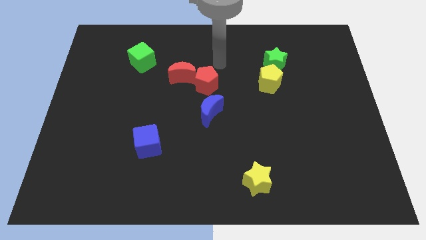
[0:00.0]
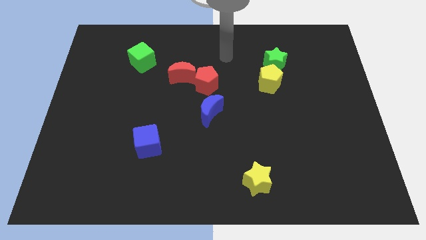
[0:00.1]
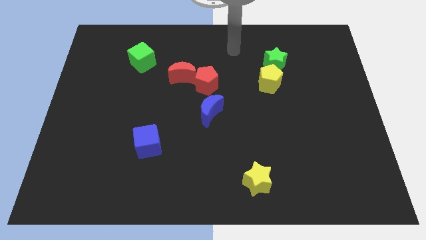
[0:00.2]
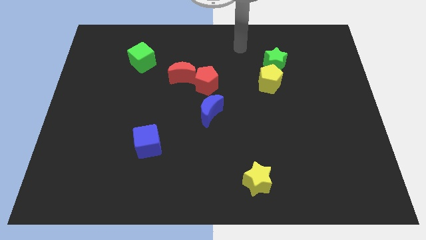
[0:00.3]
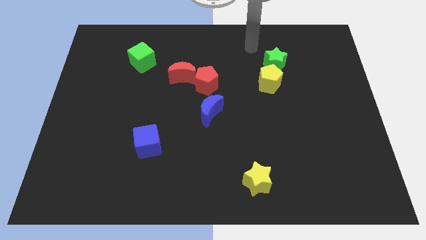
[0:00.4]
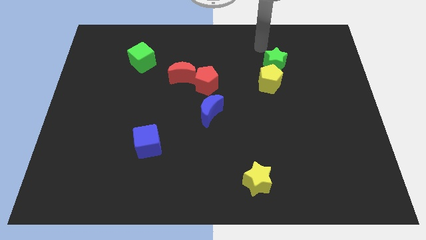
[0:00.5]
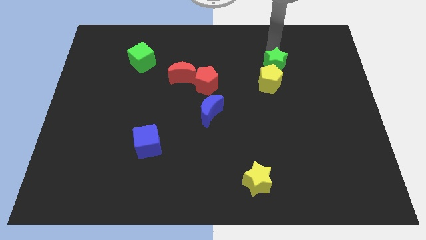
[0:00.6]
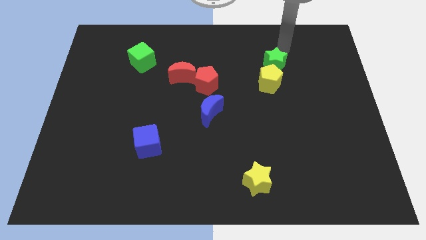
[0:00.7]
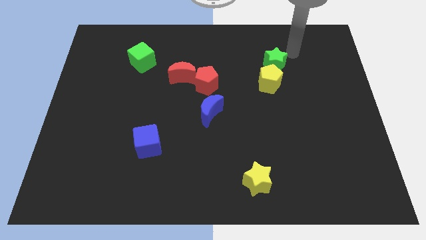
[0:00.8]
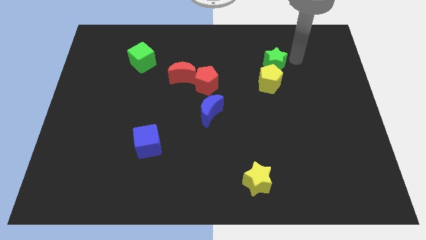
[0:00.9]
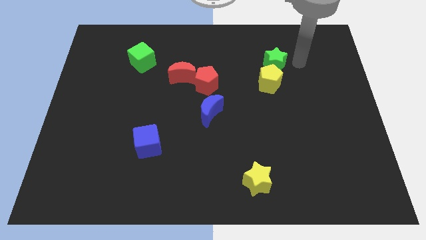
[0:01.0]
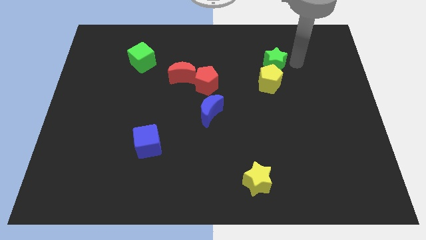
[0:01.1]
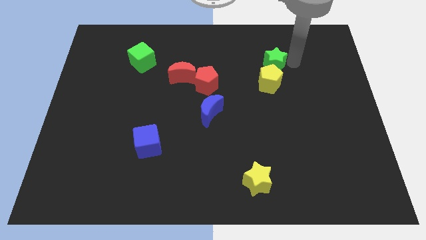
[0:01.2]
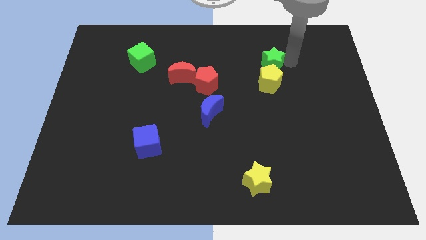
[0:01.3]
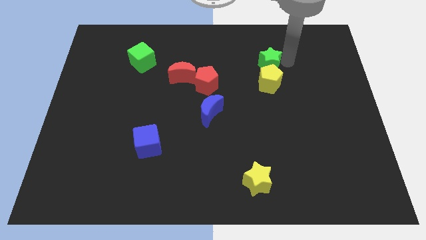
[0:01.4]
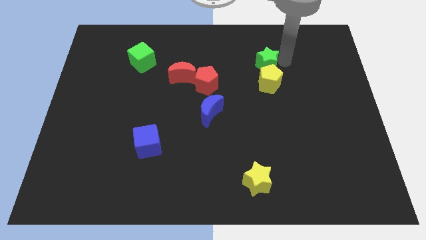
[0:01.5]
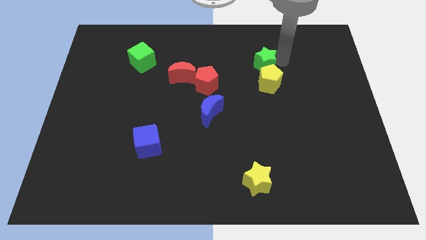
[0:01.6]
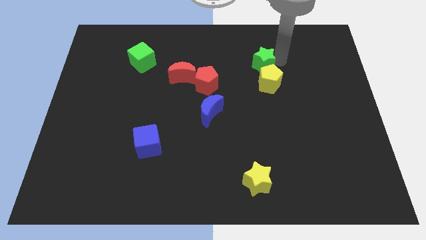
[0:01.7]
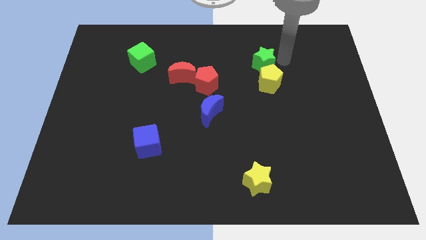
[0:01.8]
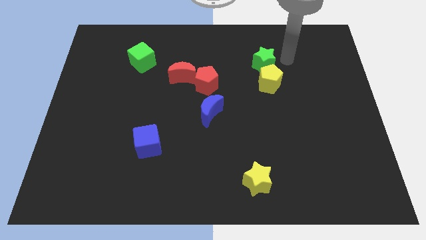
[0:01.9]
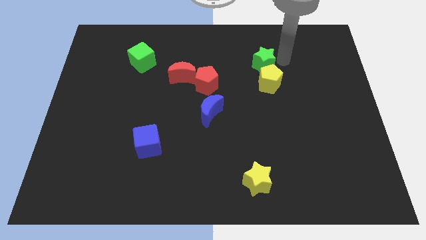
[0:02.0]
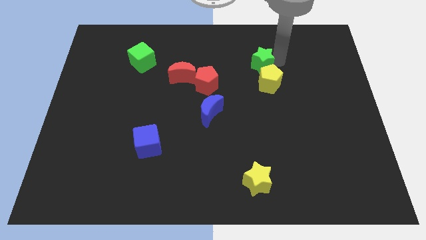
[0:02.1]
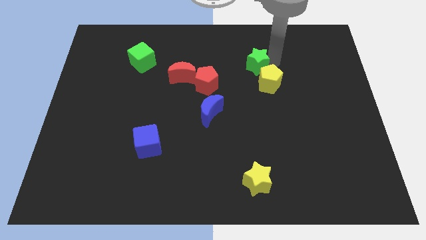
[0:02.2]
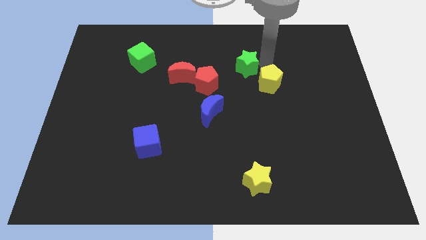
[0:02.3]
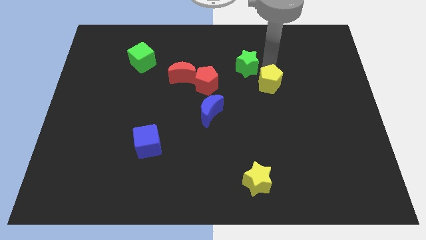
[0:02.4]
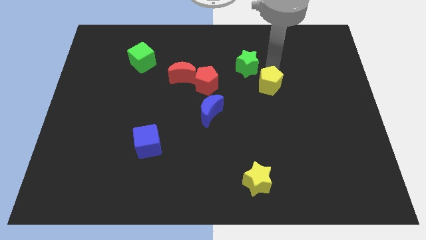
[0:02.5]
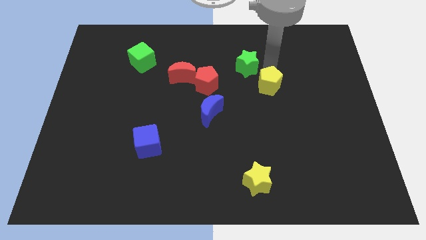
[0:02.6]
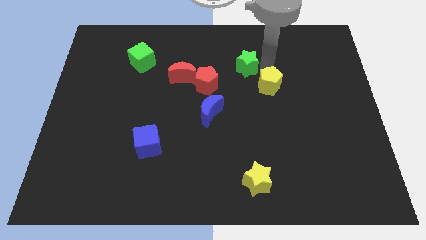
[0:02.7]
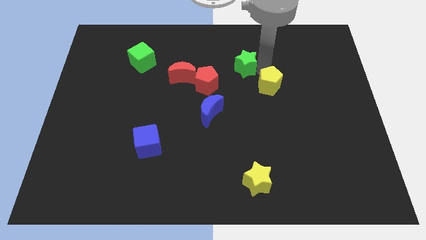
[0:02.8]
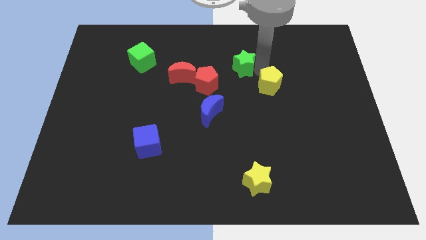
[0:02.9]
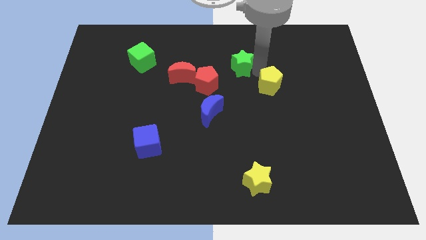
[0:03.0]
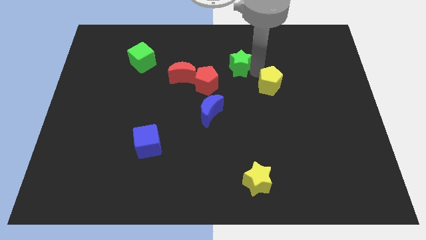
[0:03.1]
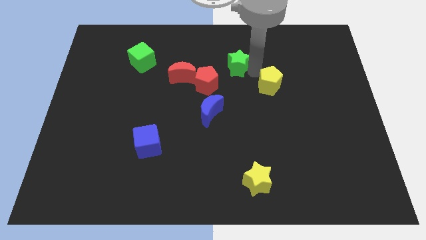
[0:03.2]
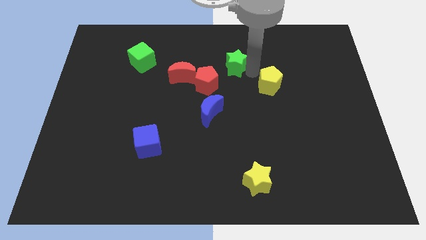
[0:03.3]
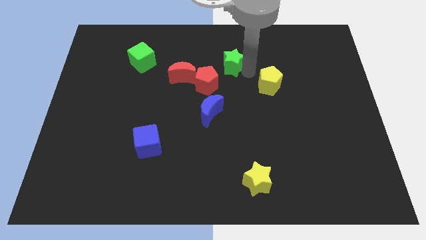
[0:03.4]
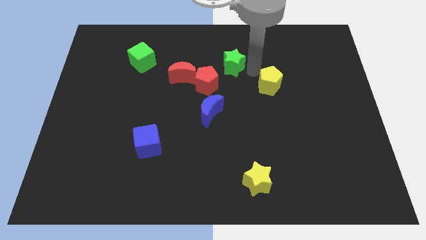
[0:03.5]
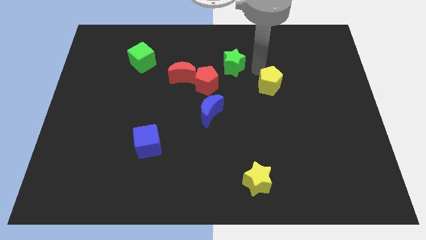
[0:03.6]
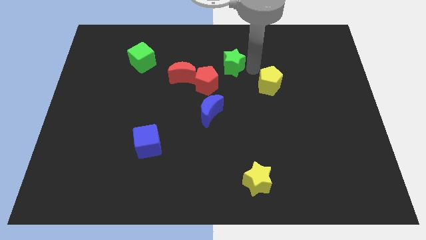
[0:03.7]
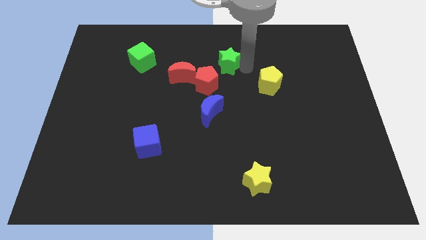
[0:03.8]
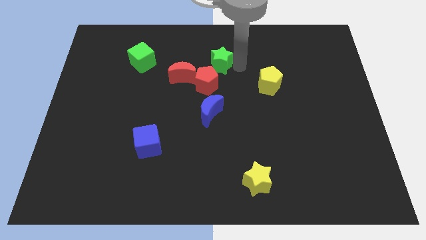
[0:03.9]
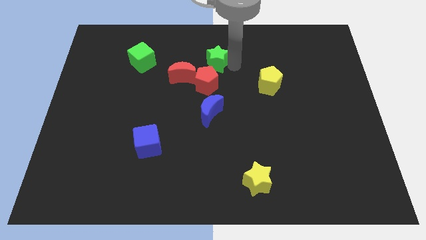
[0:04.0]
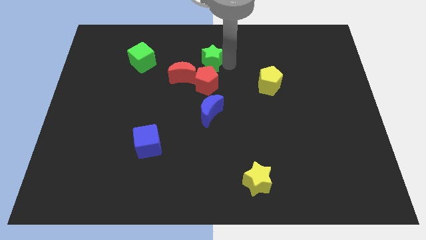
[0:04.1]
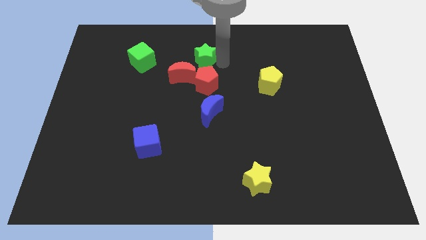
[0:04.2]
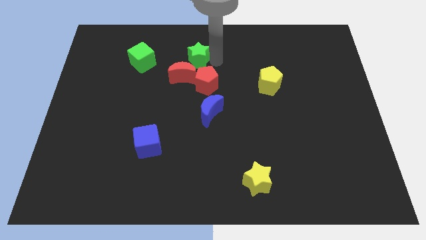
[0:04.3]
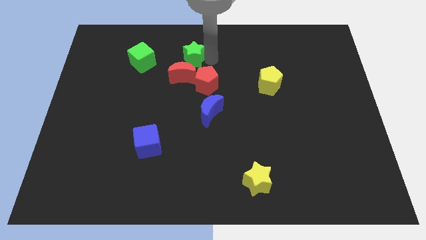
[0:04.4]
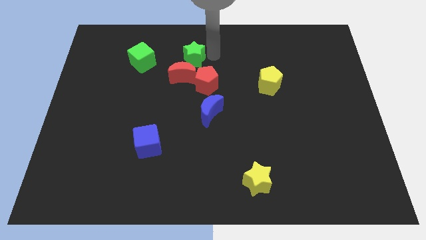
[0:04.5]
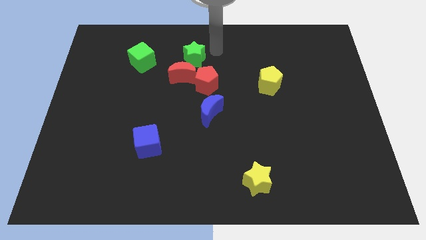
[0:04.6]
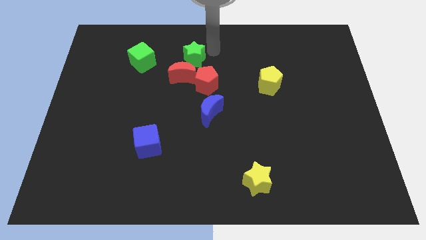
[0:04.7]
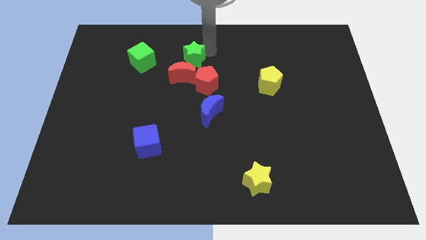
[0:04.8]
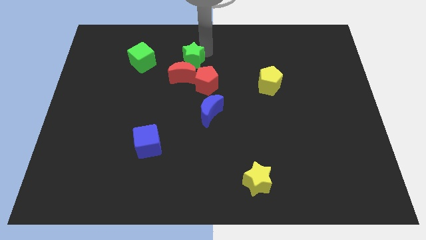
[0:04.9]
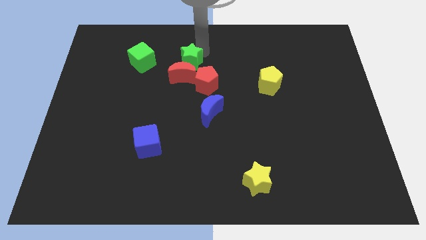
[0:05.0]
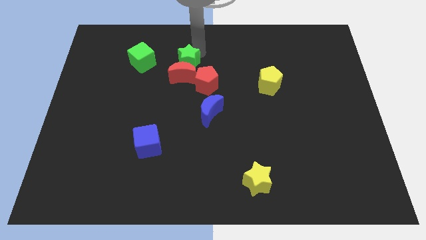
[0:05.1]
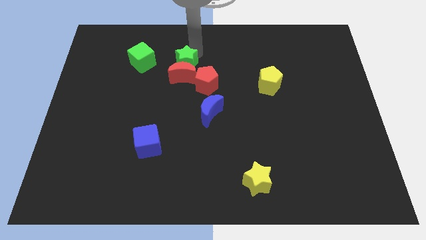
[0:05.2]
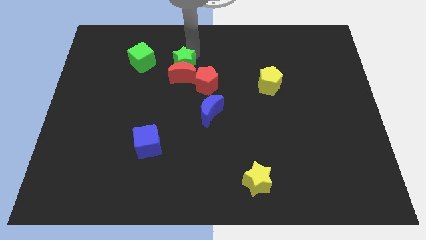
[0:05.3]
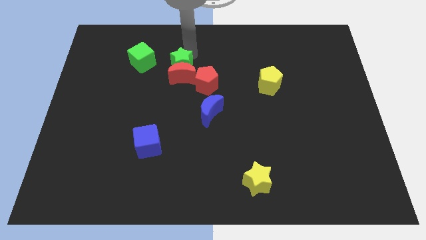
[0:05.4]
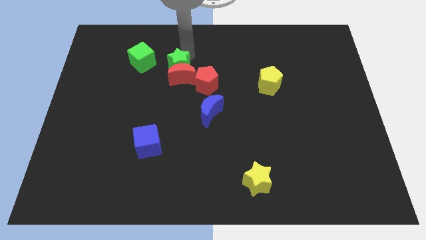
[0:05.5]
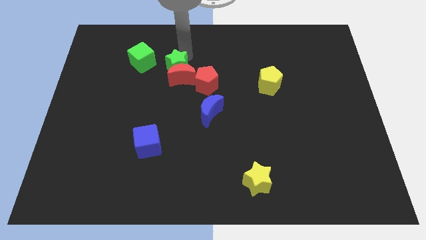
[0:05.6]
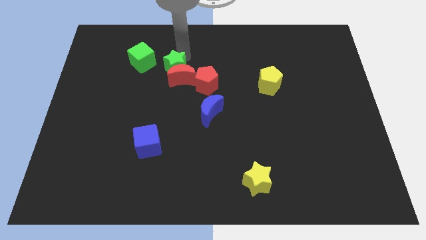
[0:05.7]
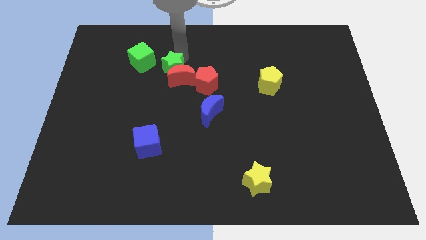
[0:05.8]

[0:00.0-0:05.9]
slide the green star left of the red moon
